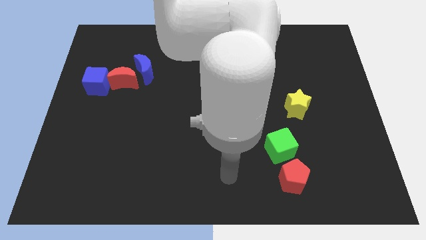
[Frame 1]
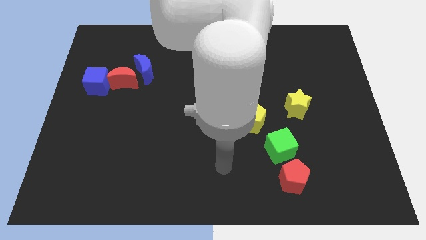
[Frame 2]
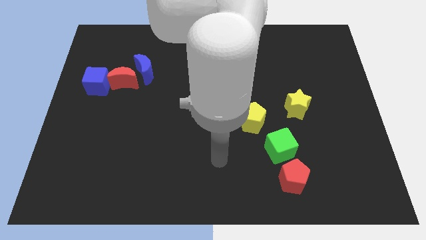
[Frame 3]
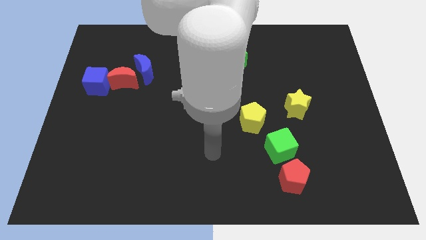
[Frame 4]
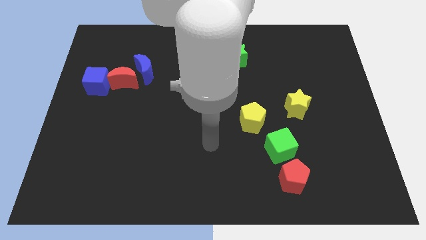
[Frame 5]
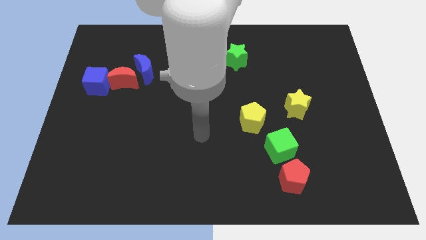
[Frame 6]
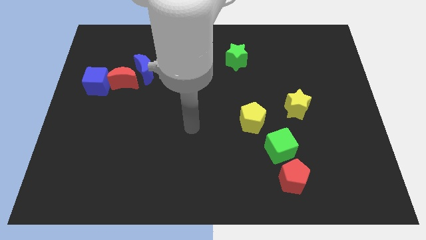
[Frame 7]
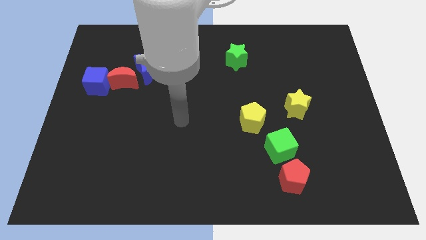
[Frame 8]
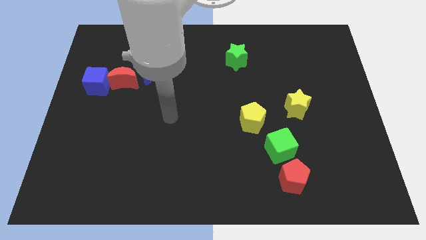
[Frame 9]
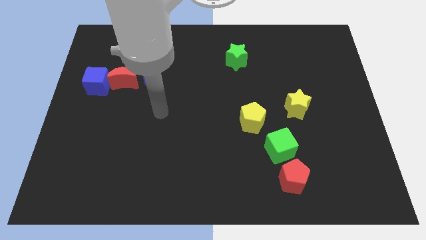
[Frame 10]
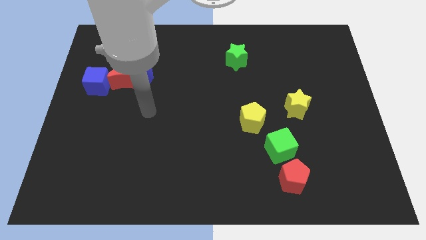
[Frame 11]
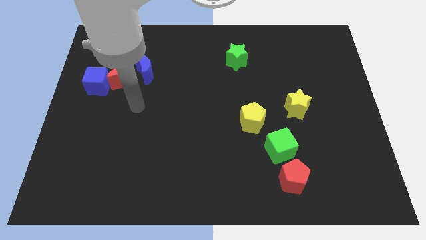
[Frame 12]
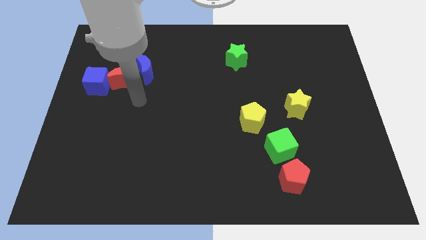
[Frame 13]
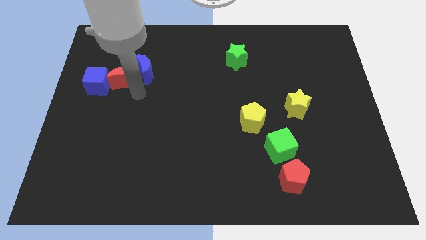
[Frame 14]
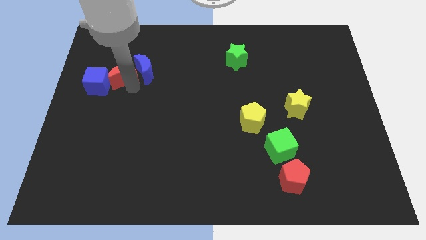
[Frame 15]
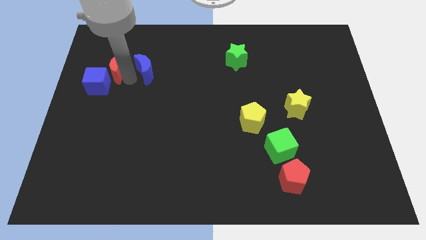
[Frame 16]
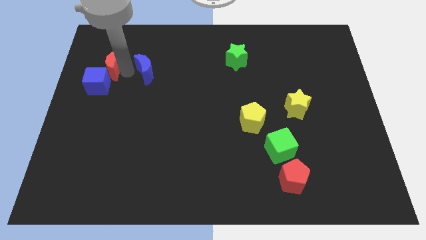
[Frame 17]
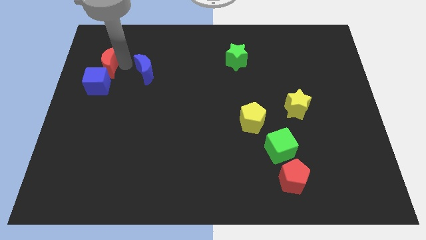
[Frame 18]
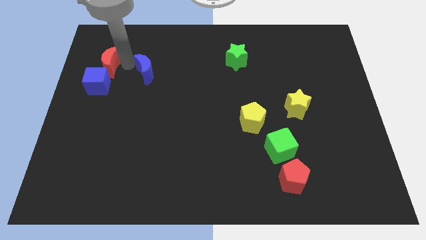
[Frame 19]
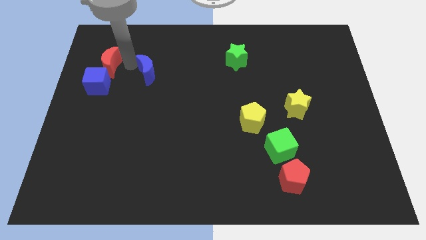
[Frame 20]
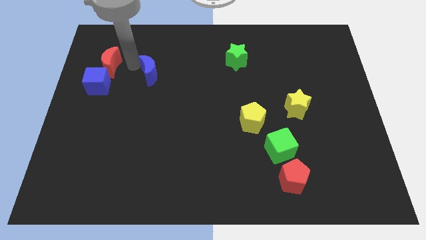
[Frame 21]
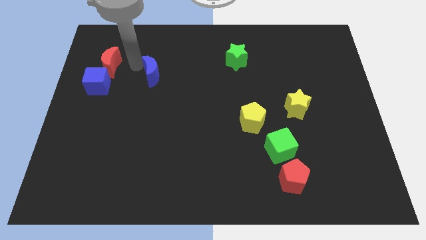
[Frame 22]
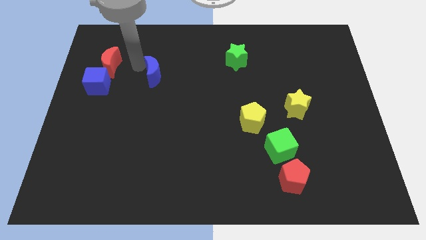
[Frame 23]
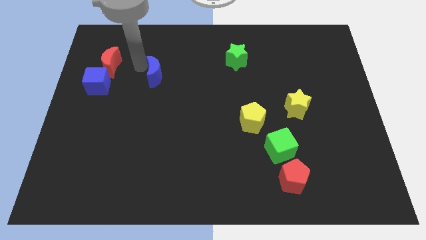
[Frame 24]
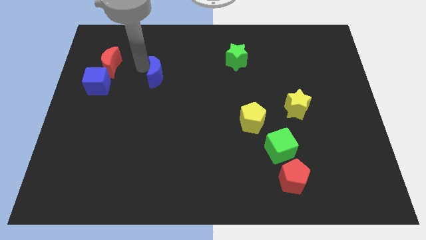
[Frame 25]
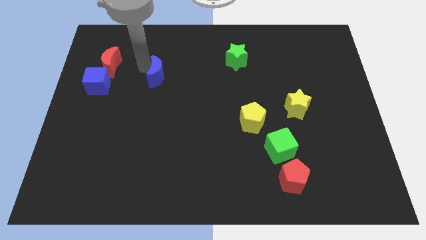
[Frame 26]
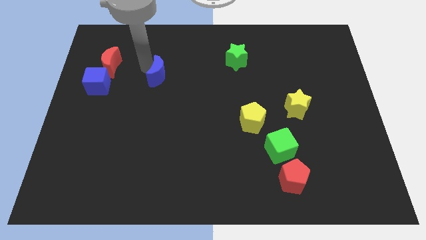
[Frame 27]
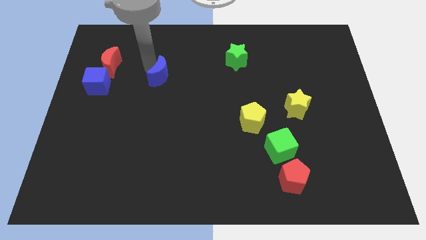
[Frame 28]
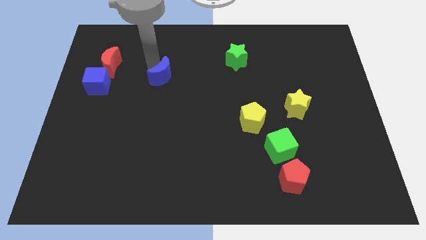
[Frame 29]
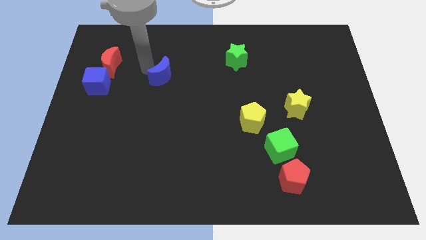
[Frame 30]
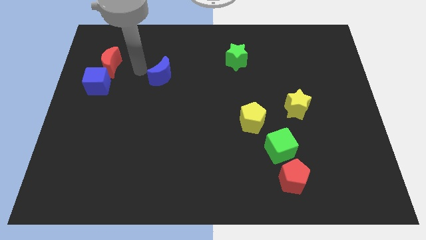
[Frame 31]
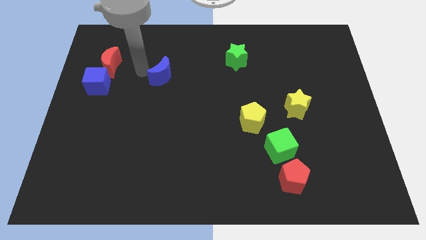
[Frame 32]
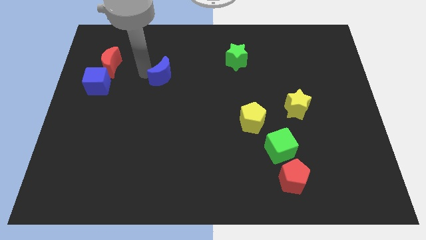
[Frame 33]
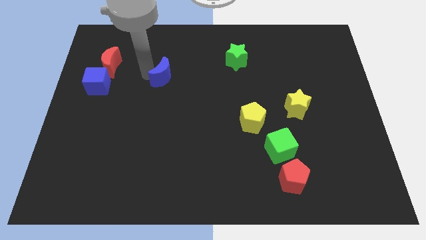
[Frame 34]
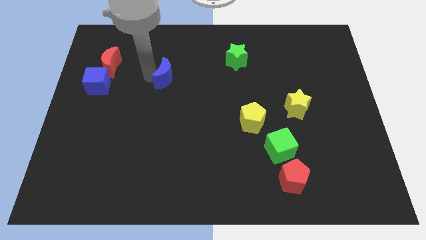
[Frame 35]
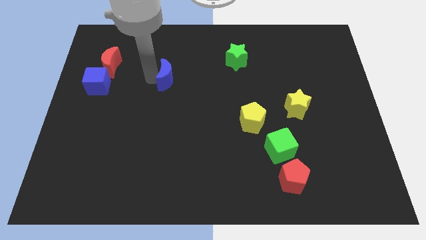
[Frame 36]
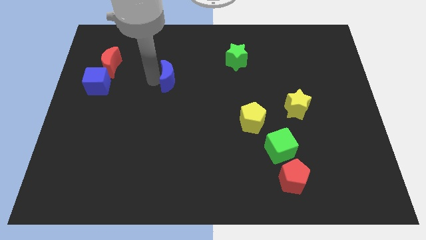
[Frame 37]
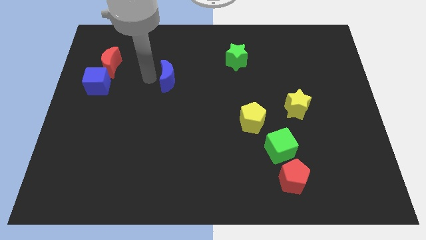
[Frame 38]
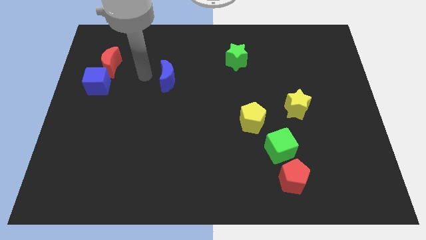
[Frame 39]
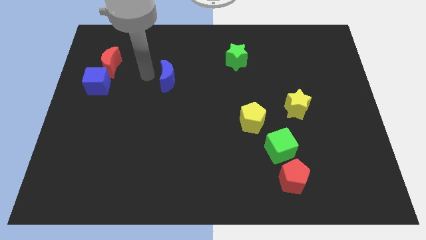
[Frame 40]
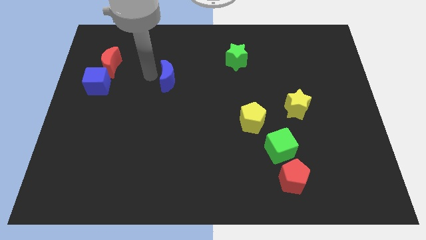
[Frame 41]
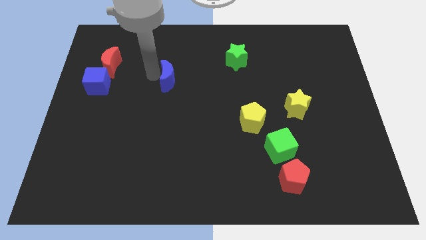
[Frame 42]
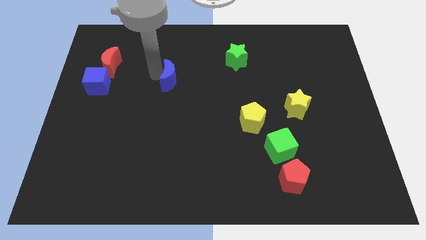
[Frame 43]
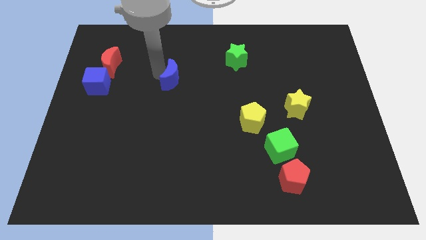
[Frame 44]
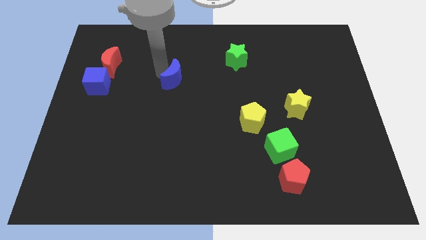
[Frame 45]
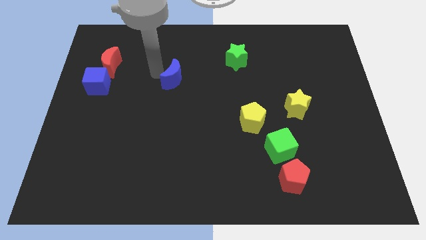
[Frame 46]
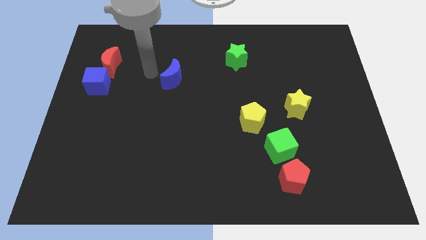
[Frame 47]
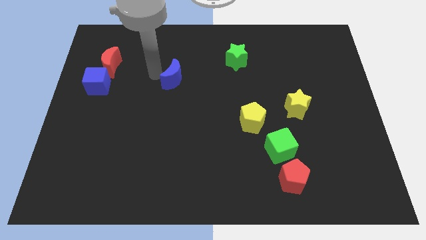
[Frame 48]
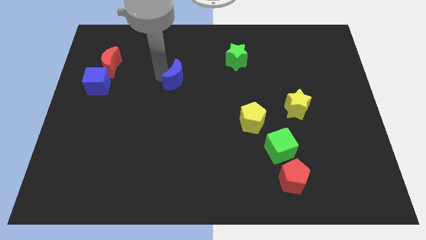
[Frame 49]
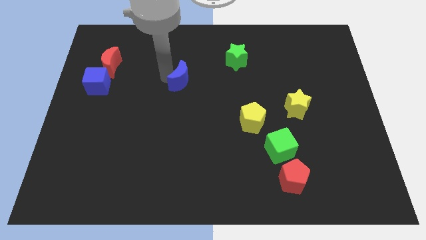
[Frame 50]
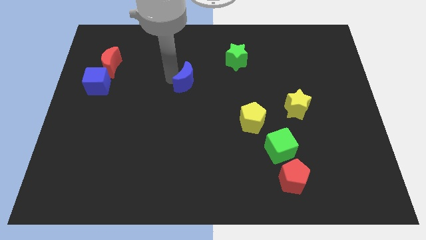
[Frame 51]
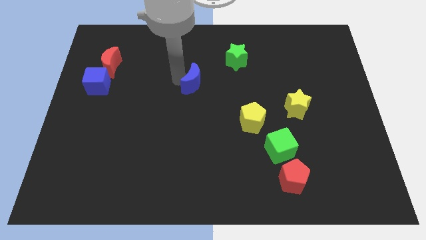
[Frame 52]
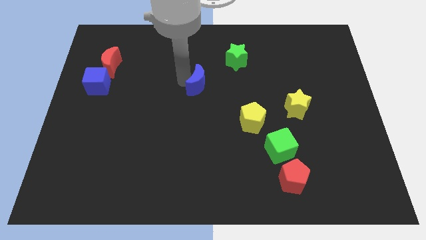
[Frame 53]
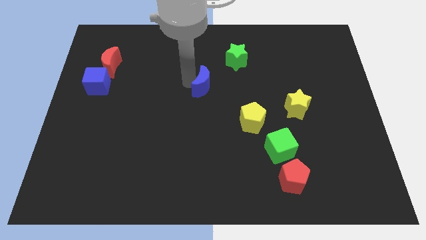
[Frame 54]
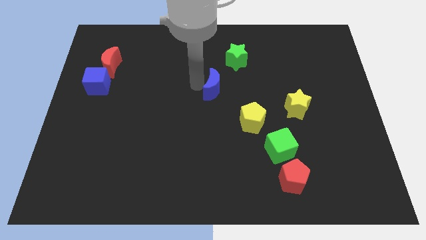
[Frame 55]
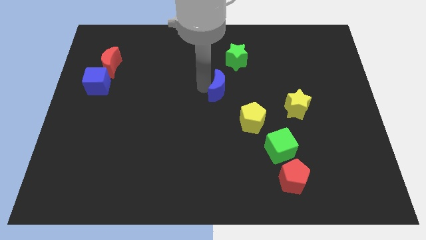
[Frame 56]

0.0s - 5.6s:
move the blue moon to the bottom of the green star

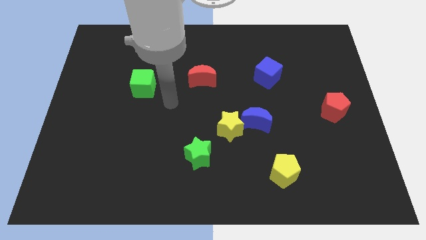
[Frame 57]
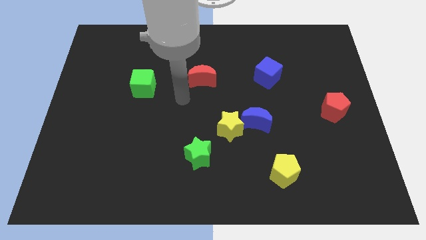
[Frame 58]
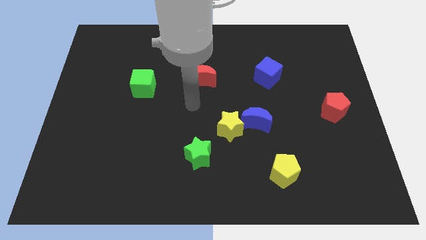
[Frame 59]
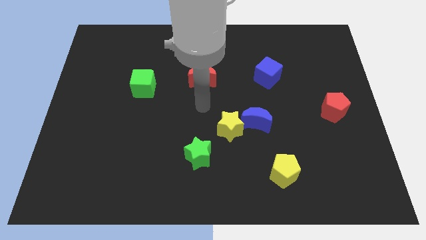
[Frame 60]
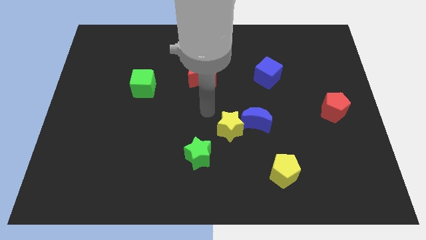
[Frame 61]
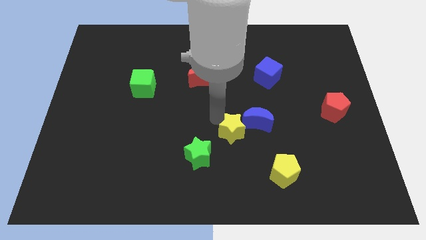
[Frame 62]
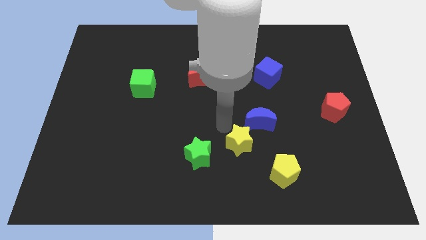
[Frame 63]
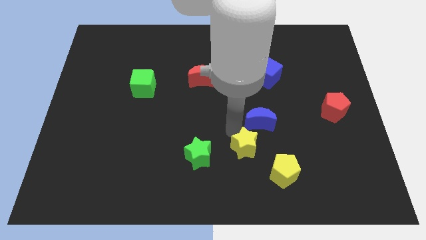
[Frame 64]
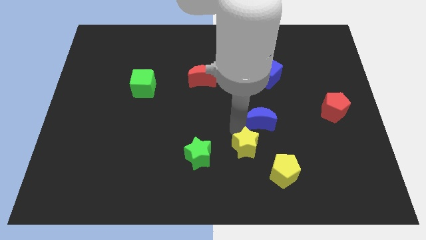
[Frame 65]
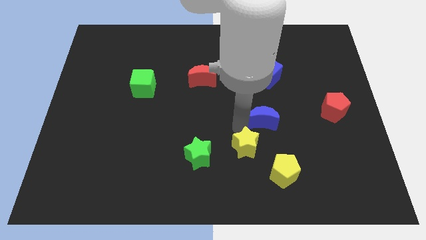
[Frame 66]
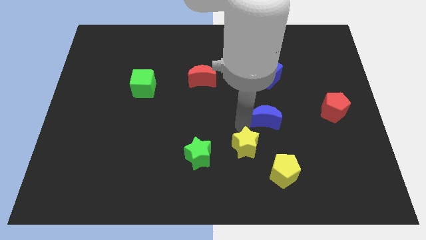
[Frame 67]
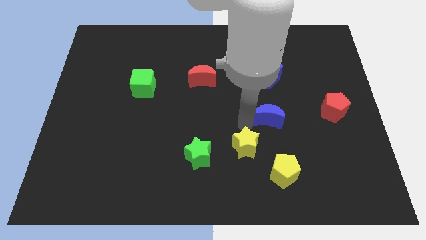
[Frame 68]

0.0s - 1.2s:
slide the blue moon just left of the red pentagon
